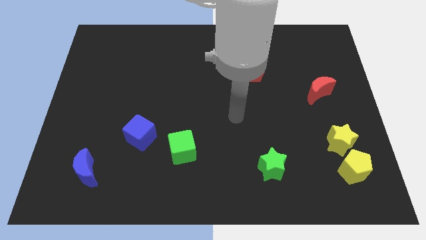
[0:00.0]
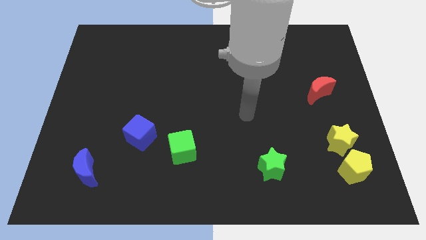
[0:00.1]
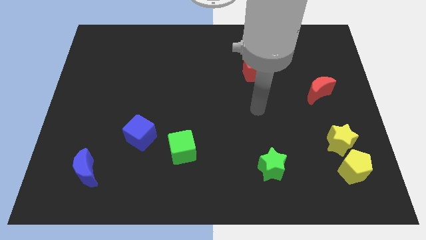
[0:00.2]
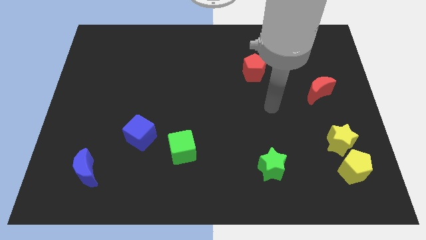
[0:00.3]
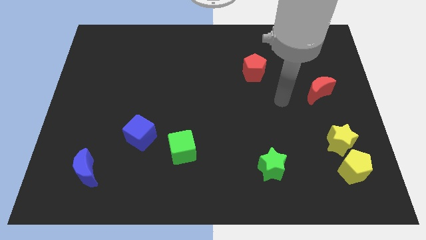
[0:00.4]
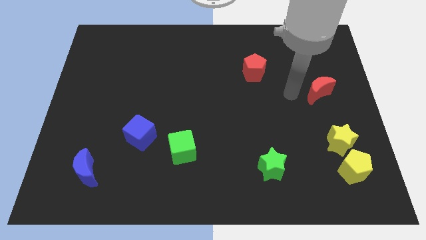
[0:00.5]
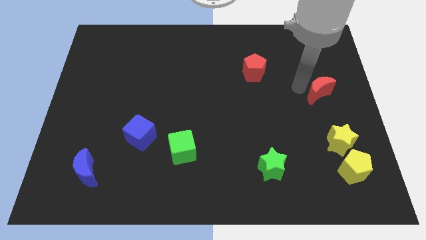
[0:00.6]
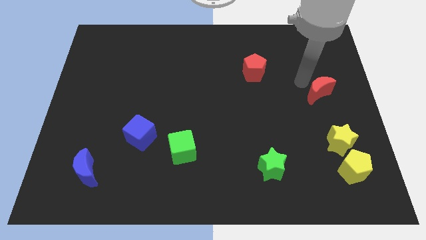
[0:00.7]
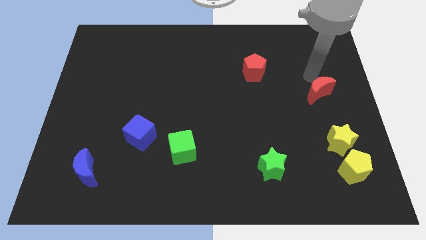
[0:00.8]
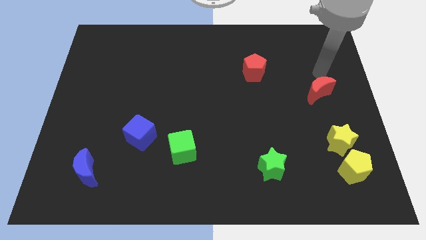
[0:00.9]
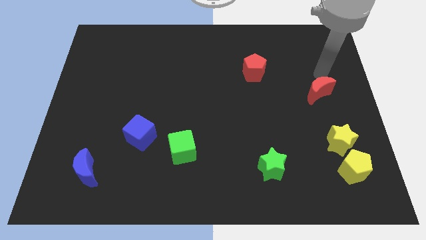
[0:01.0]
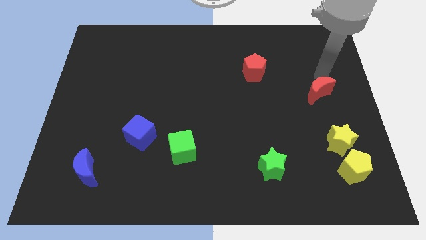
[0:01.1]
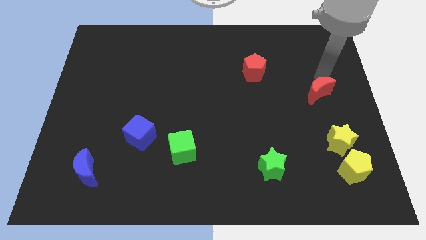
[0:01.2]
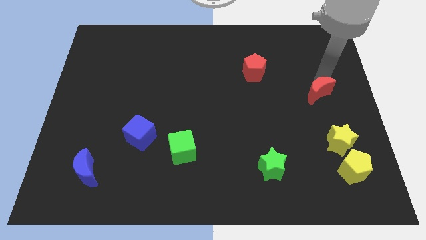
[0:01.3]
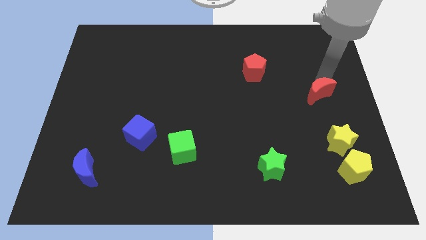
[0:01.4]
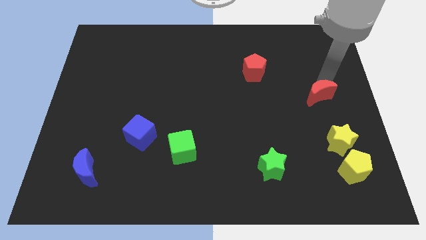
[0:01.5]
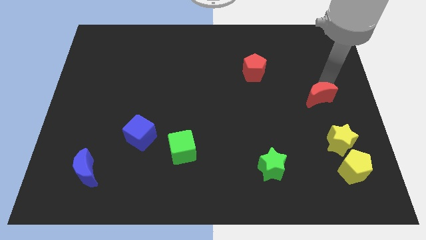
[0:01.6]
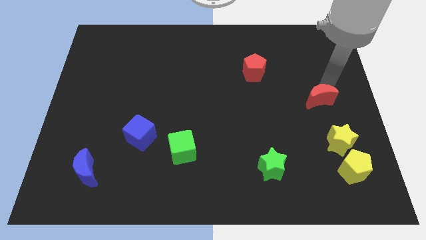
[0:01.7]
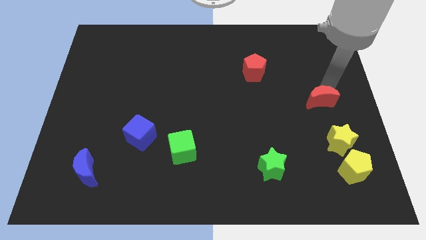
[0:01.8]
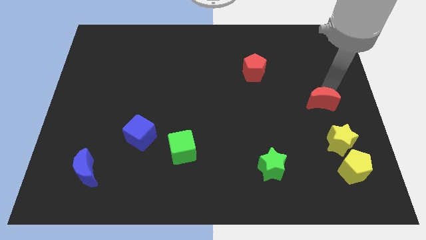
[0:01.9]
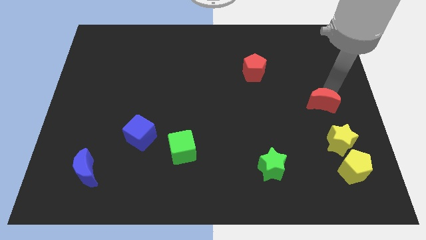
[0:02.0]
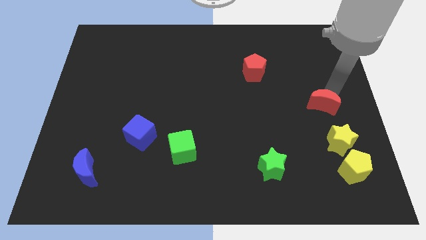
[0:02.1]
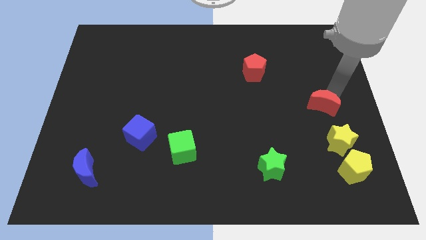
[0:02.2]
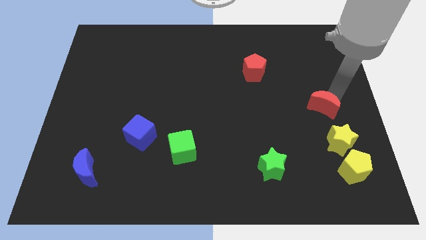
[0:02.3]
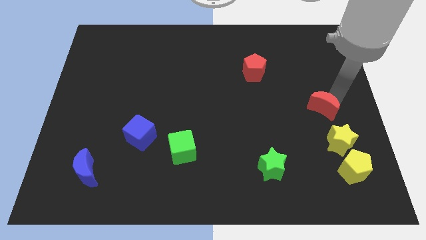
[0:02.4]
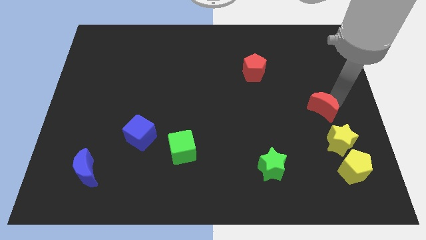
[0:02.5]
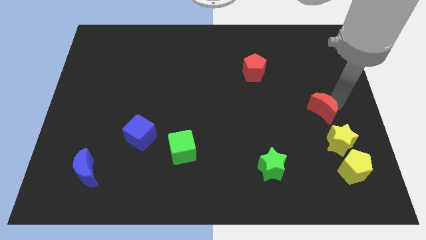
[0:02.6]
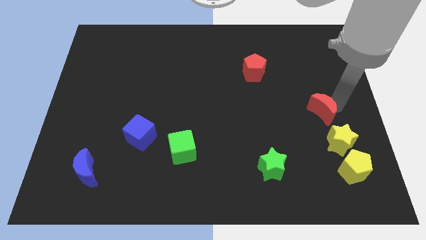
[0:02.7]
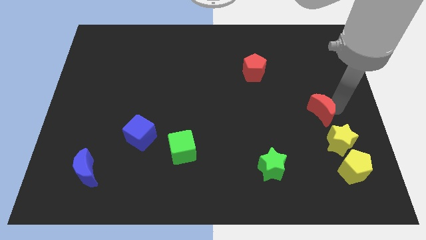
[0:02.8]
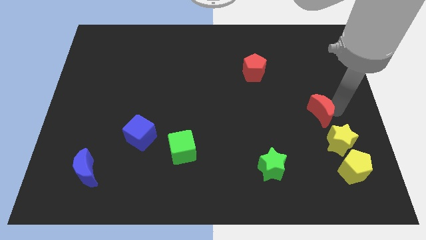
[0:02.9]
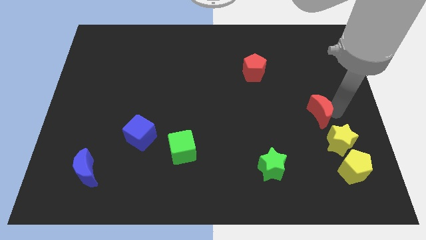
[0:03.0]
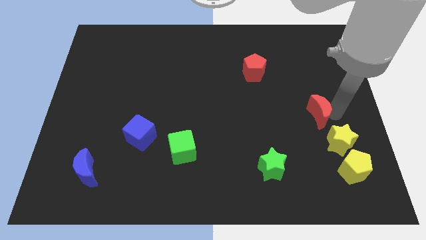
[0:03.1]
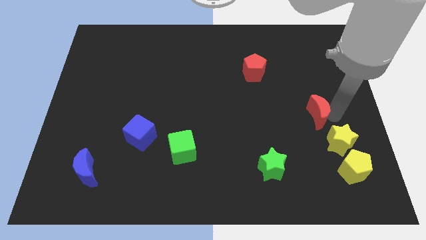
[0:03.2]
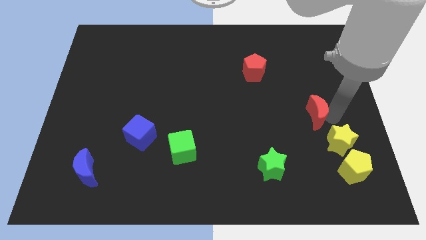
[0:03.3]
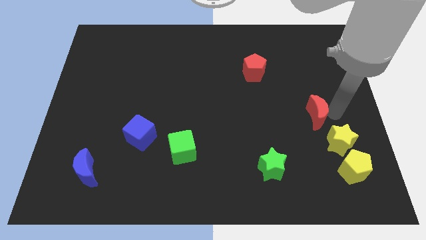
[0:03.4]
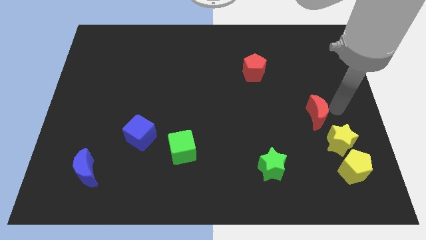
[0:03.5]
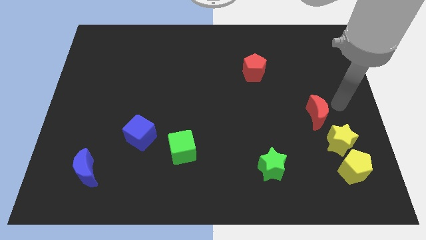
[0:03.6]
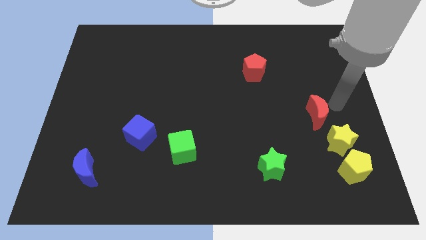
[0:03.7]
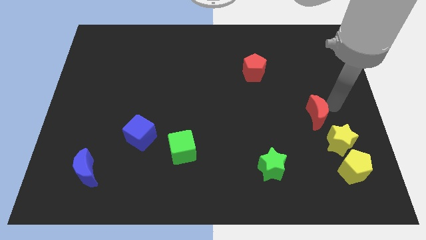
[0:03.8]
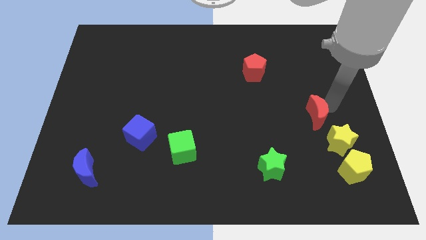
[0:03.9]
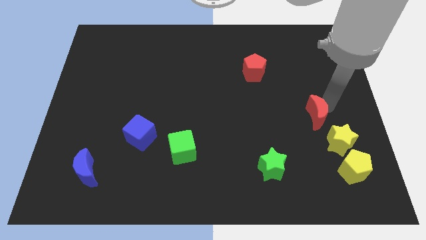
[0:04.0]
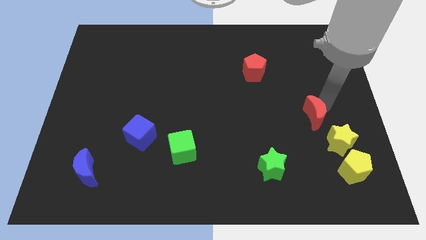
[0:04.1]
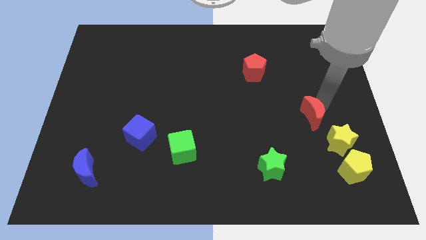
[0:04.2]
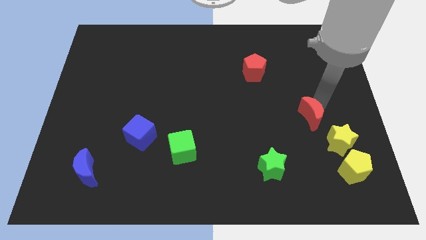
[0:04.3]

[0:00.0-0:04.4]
move the red moon downwards and then left somewhat

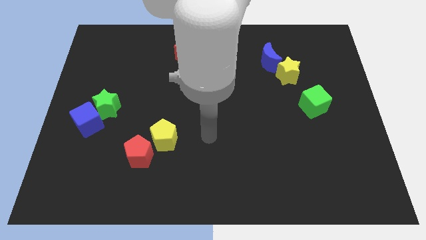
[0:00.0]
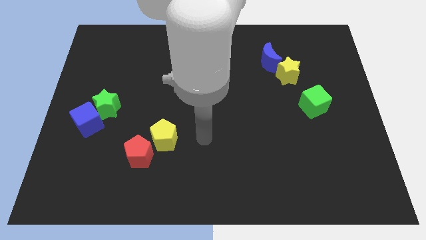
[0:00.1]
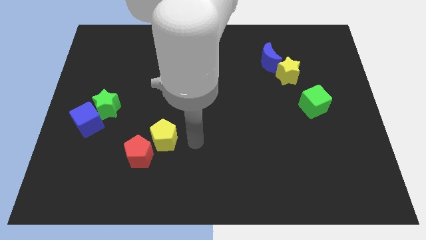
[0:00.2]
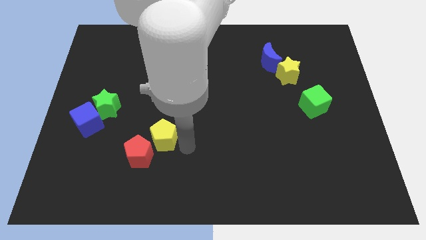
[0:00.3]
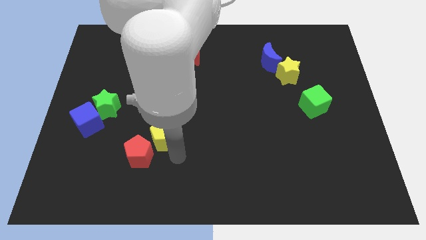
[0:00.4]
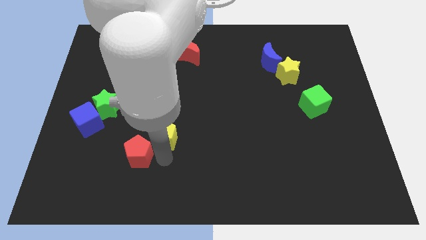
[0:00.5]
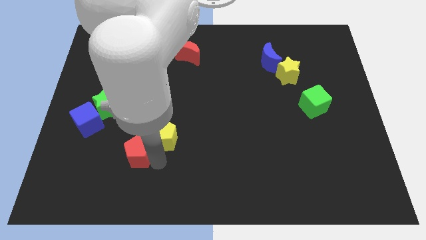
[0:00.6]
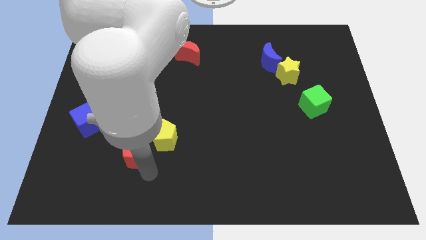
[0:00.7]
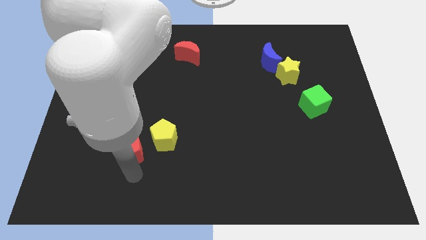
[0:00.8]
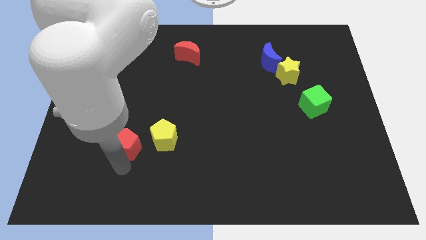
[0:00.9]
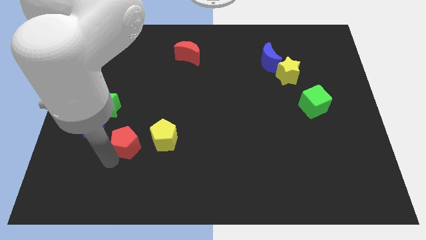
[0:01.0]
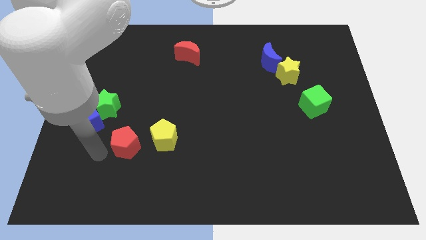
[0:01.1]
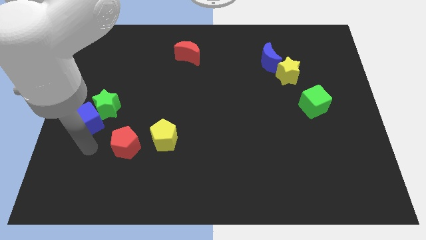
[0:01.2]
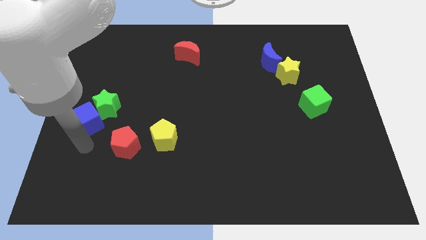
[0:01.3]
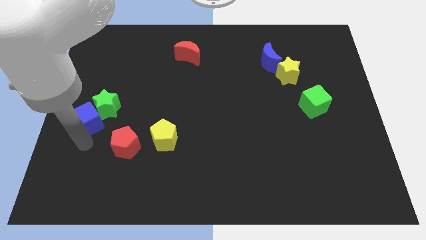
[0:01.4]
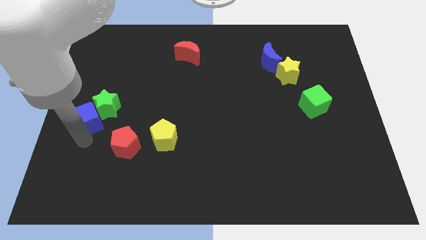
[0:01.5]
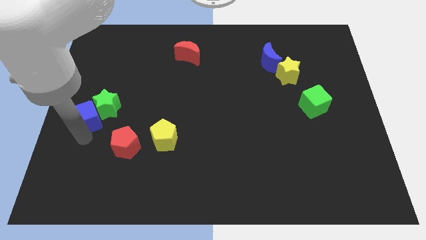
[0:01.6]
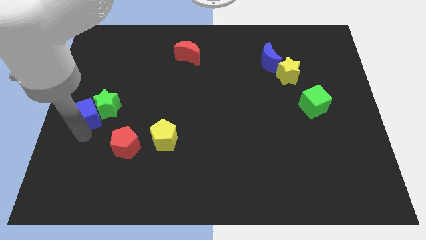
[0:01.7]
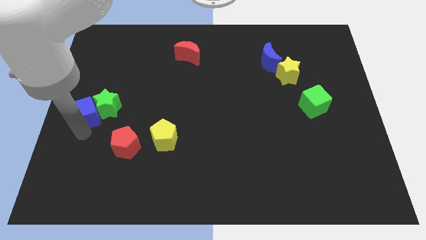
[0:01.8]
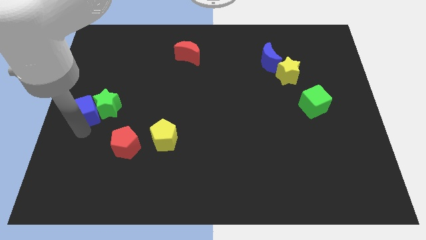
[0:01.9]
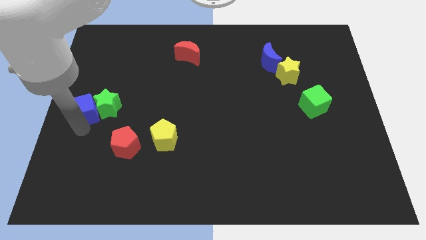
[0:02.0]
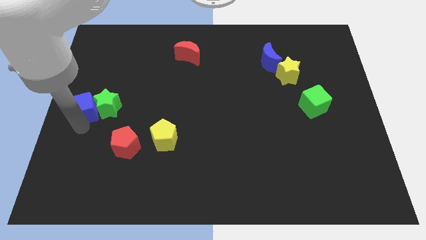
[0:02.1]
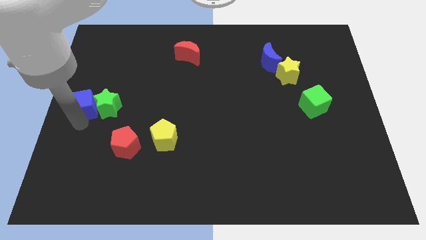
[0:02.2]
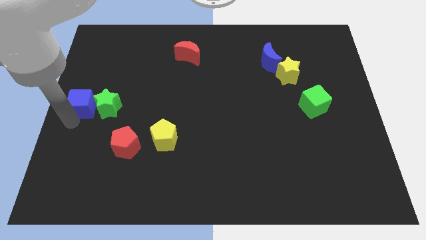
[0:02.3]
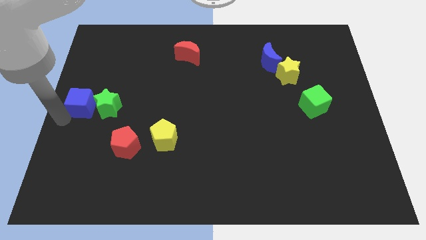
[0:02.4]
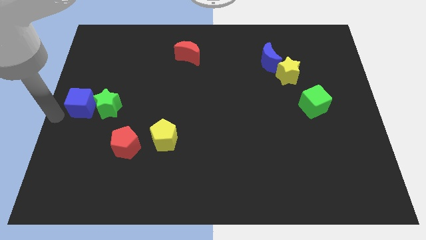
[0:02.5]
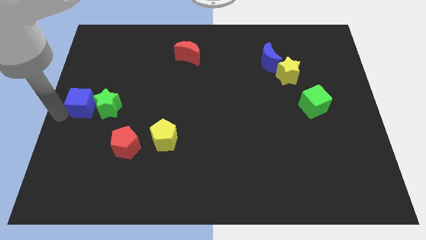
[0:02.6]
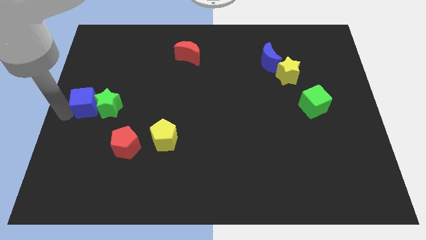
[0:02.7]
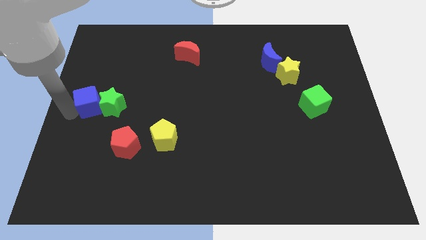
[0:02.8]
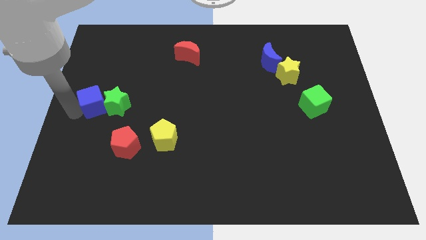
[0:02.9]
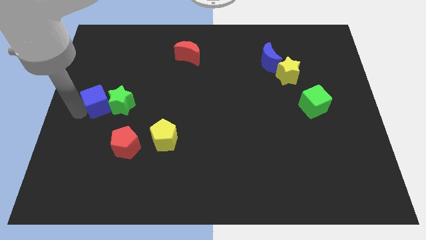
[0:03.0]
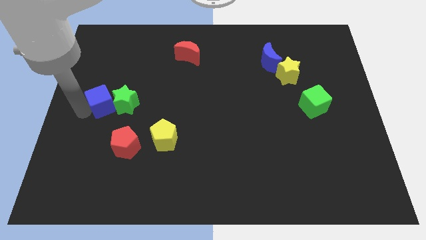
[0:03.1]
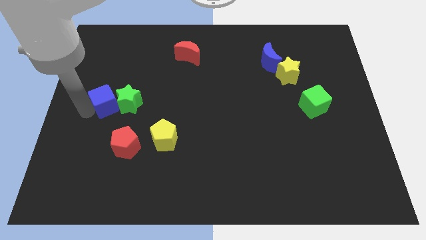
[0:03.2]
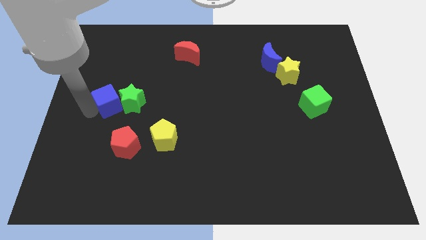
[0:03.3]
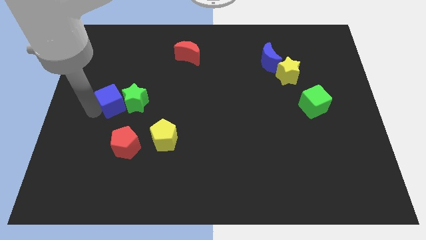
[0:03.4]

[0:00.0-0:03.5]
slide the blue cube somewhat upwards and then right
